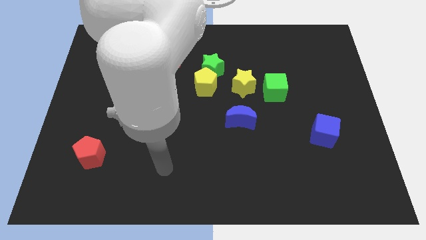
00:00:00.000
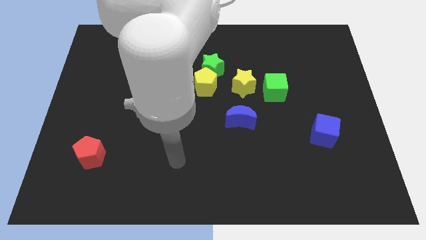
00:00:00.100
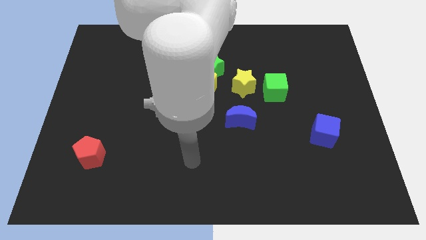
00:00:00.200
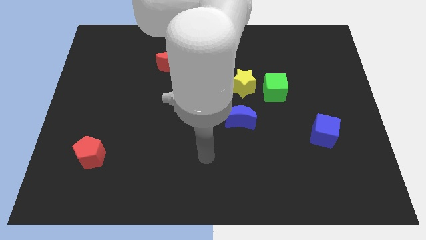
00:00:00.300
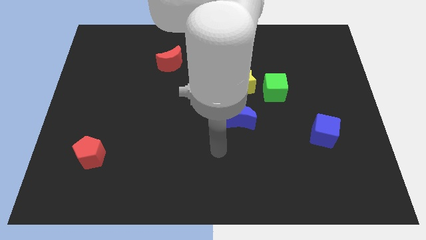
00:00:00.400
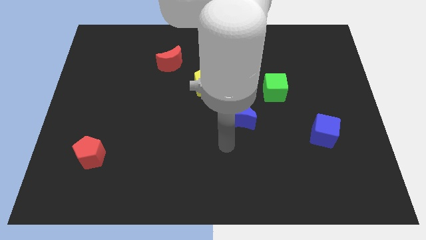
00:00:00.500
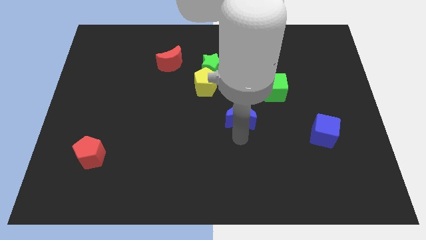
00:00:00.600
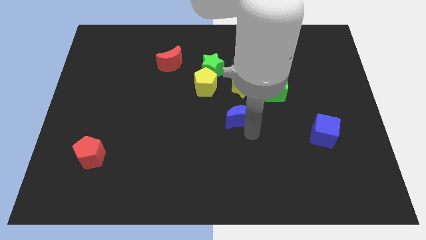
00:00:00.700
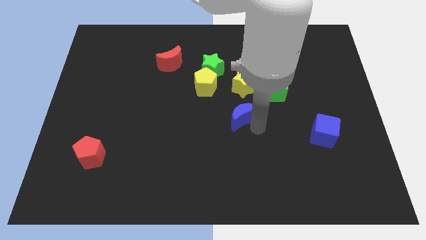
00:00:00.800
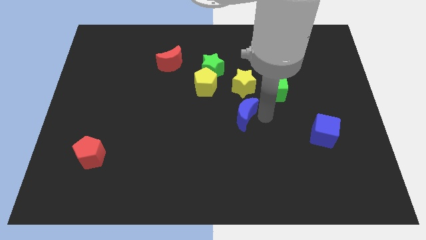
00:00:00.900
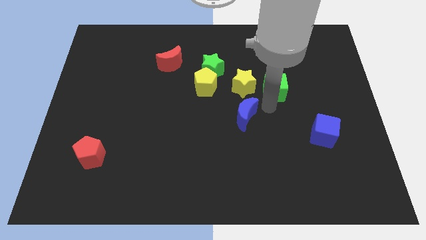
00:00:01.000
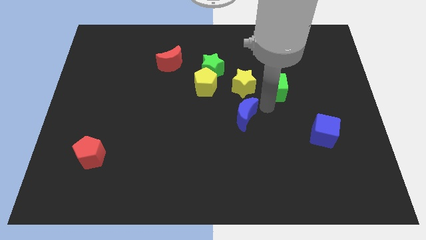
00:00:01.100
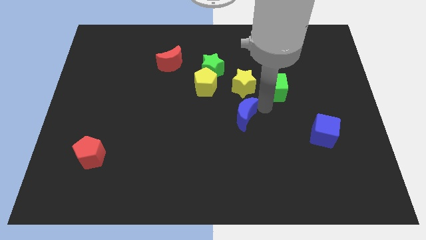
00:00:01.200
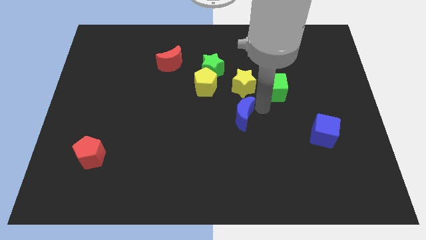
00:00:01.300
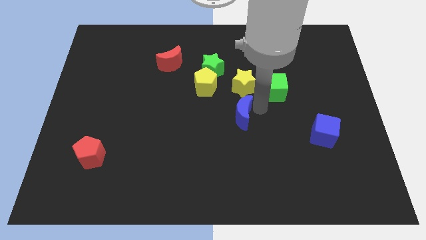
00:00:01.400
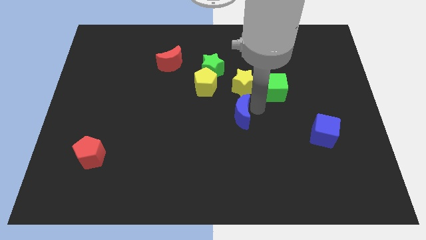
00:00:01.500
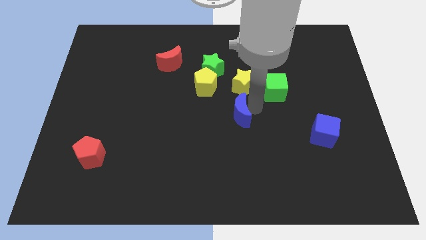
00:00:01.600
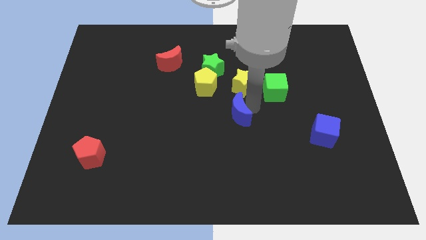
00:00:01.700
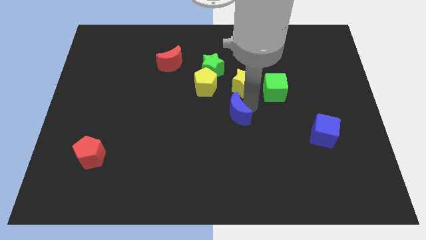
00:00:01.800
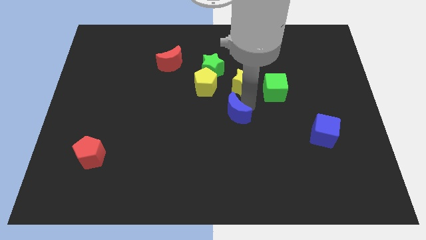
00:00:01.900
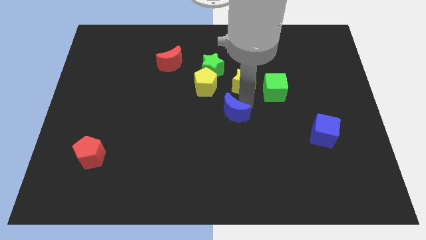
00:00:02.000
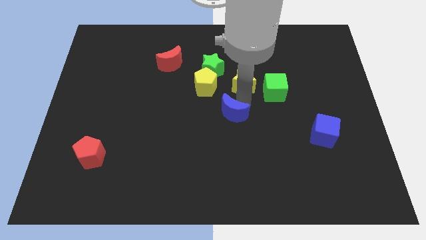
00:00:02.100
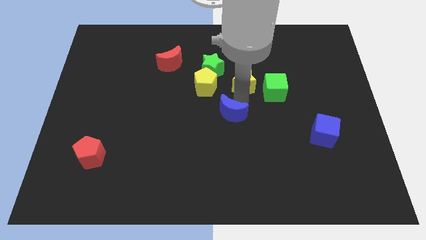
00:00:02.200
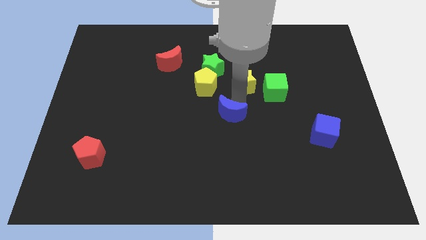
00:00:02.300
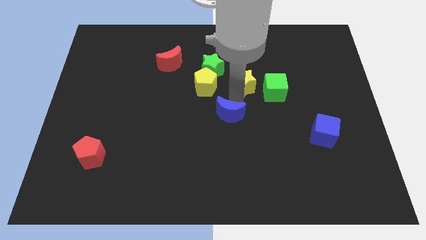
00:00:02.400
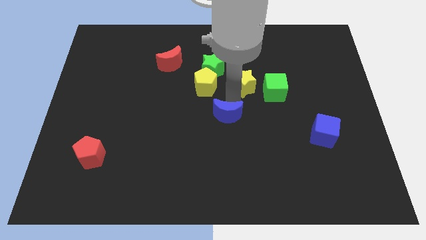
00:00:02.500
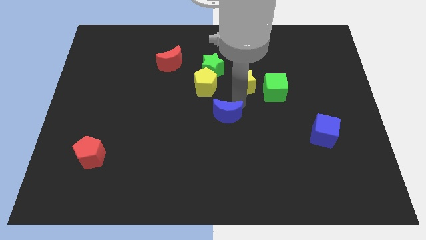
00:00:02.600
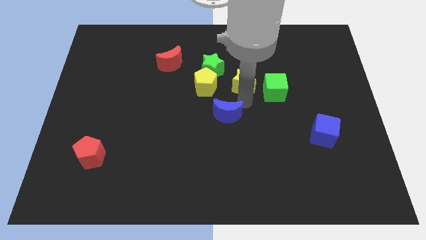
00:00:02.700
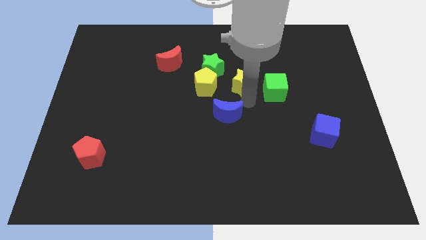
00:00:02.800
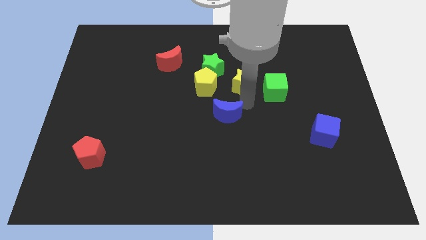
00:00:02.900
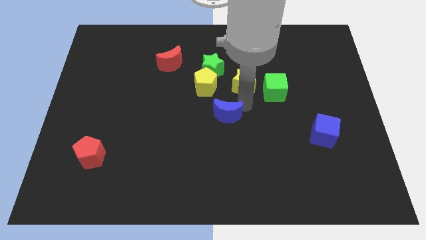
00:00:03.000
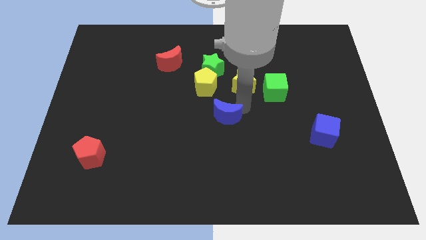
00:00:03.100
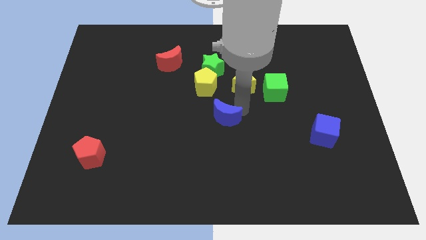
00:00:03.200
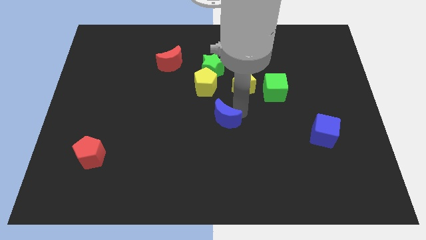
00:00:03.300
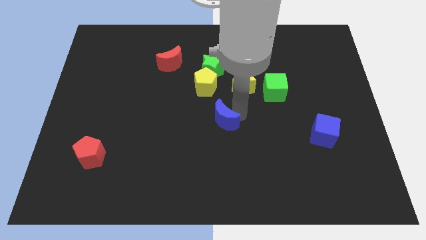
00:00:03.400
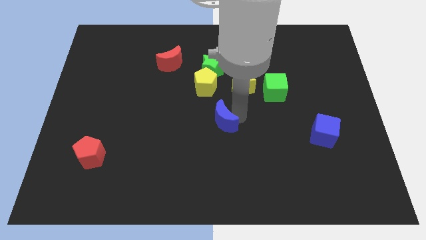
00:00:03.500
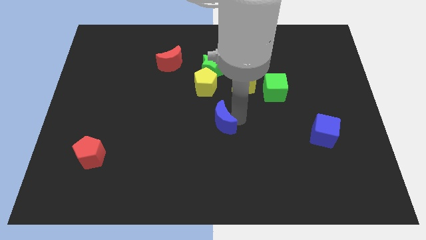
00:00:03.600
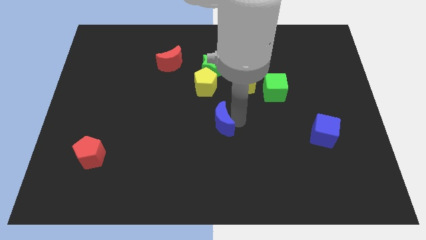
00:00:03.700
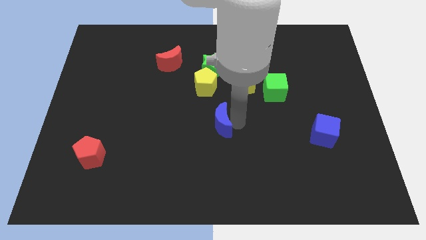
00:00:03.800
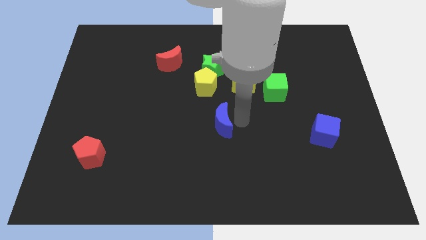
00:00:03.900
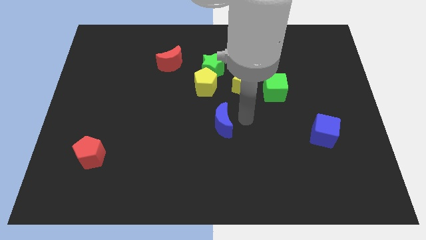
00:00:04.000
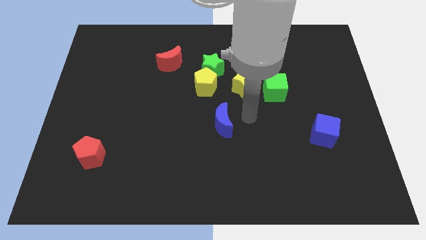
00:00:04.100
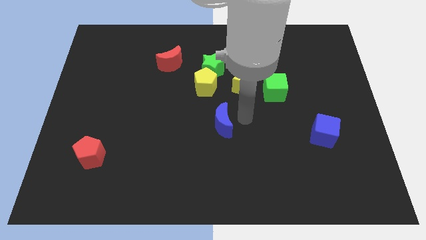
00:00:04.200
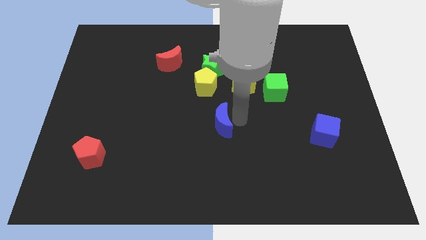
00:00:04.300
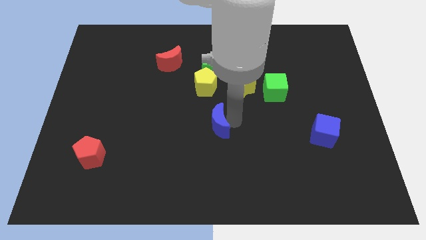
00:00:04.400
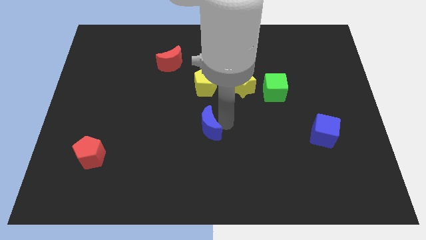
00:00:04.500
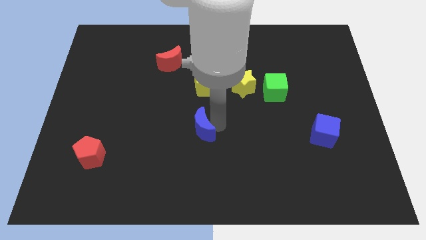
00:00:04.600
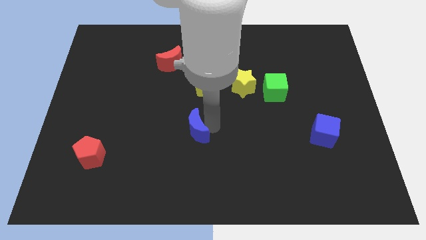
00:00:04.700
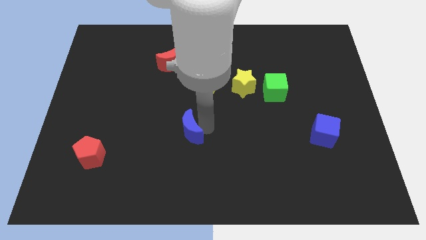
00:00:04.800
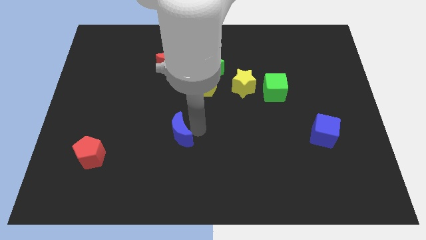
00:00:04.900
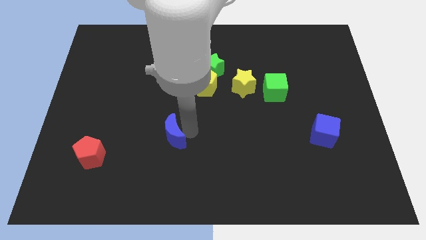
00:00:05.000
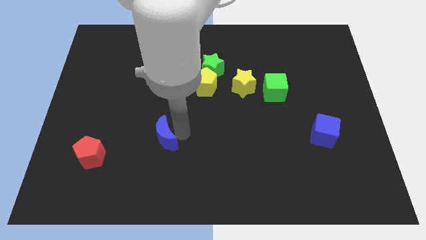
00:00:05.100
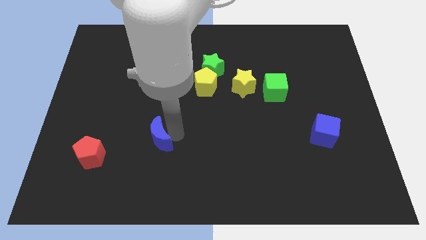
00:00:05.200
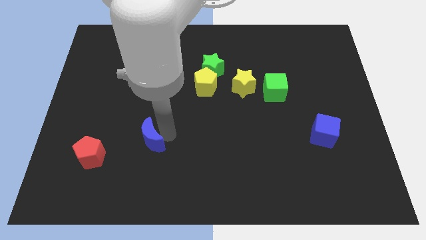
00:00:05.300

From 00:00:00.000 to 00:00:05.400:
push the blue moon to the right side of the red pentagon

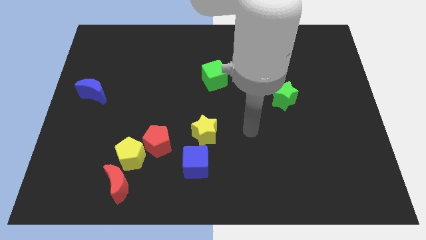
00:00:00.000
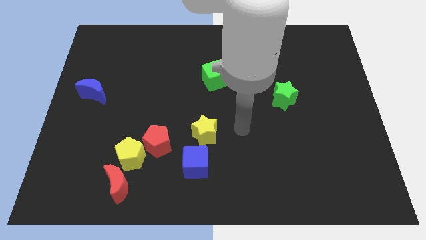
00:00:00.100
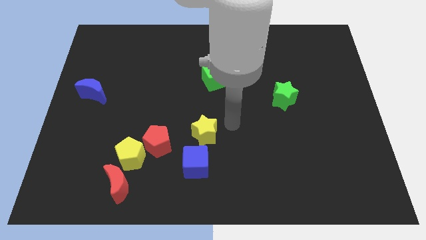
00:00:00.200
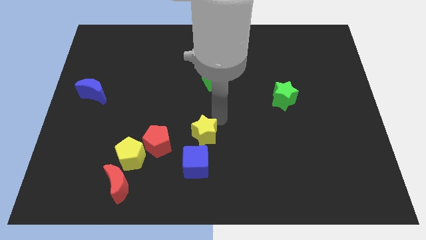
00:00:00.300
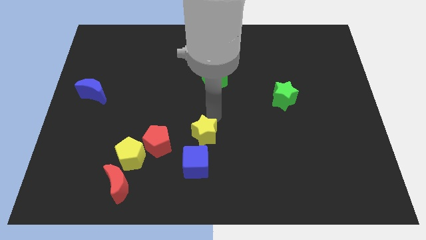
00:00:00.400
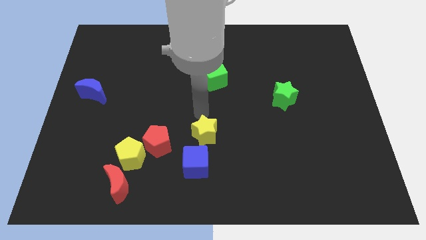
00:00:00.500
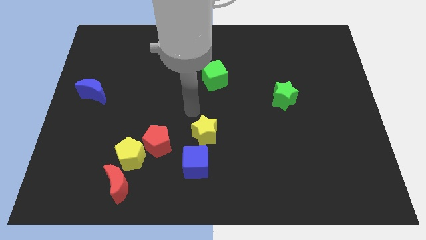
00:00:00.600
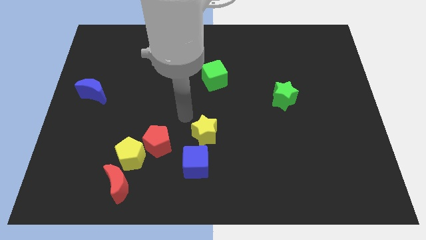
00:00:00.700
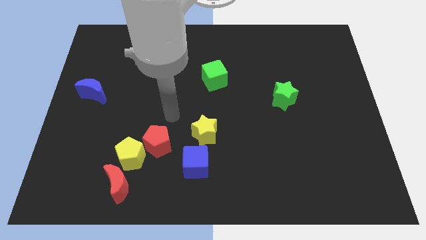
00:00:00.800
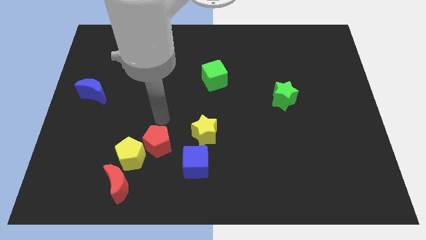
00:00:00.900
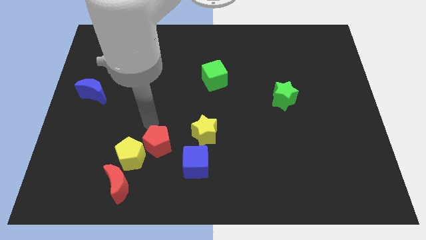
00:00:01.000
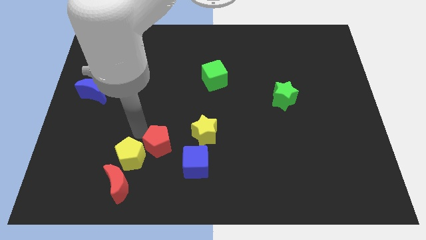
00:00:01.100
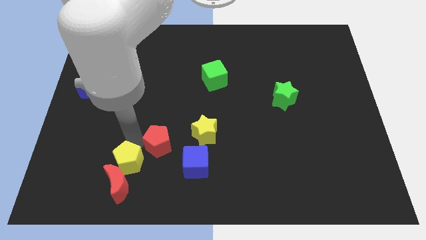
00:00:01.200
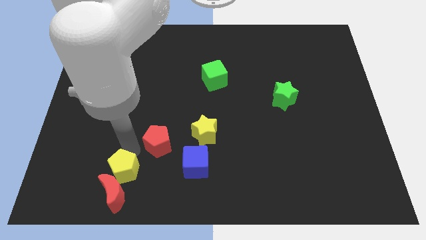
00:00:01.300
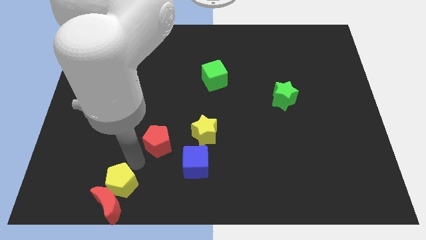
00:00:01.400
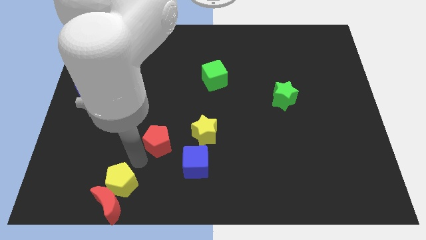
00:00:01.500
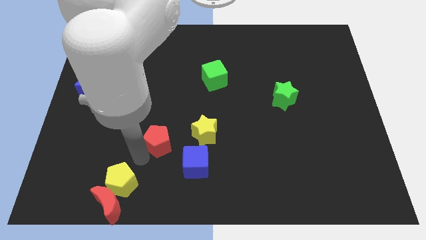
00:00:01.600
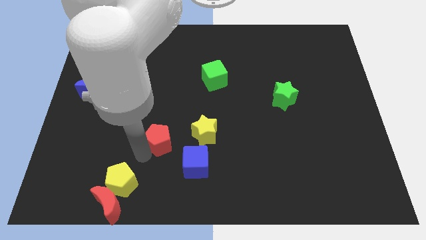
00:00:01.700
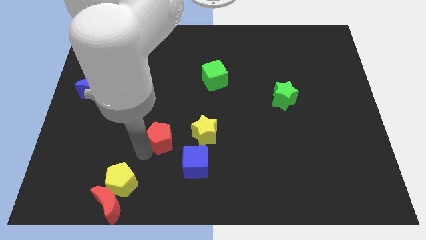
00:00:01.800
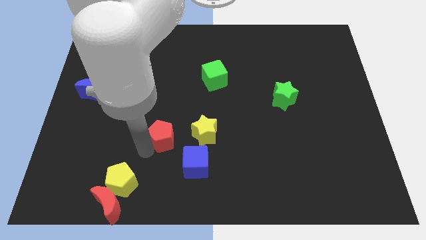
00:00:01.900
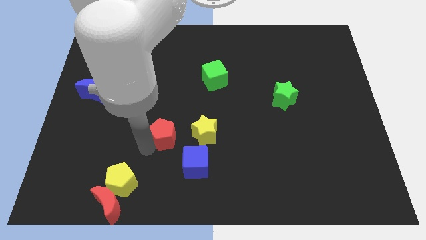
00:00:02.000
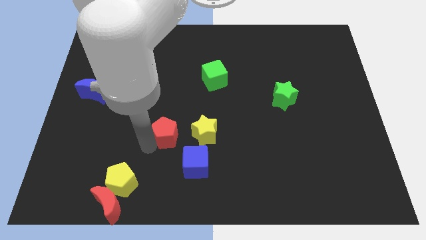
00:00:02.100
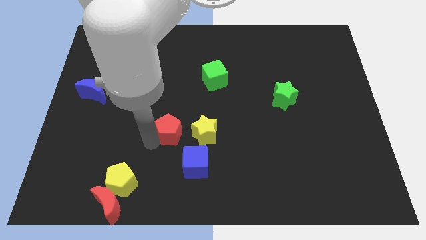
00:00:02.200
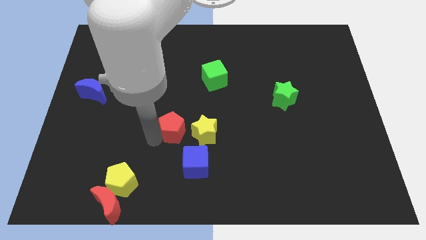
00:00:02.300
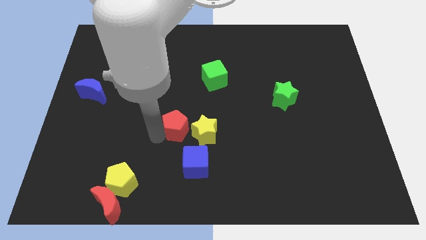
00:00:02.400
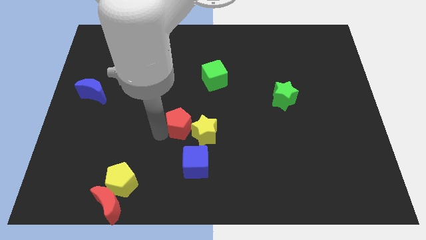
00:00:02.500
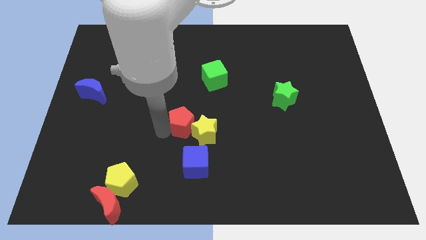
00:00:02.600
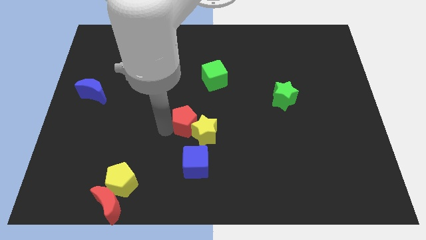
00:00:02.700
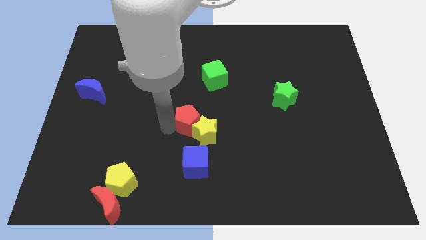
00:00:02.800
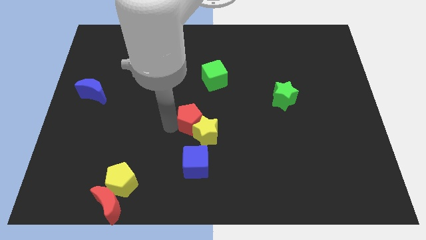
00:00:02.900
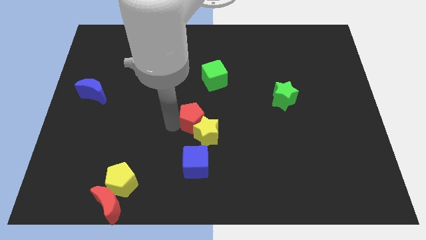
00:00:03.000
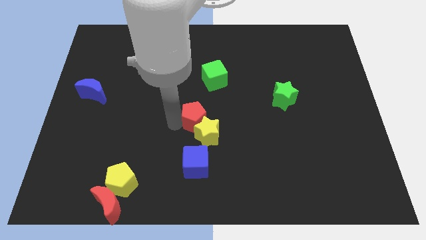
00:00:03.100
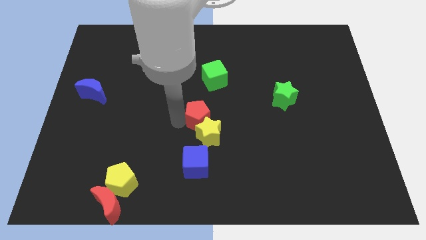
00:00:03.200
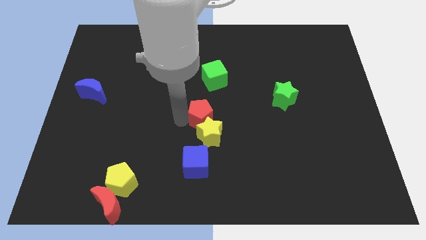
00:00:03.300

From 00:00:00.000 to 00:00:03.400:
push the red pentagon to the top right of the yellow star
